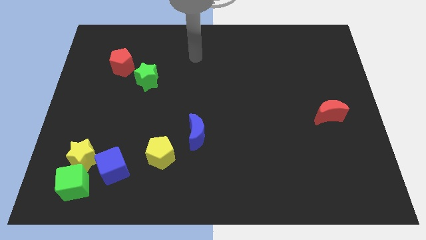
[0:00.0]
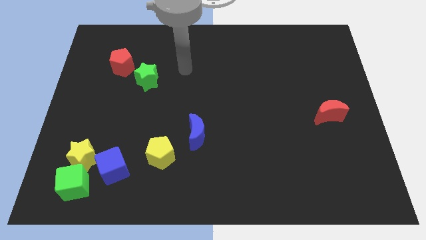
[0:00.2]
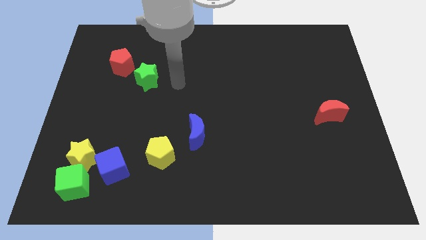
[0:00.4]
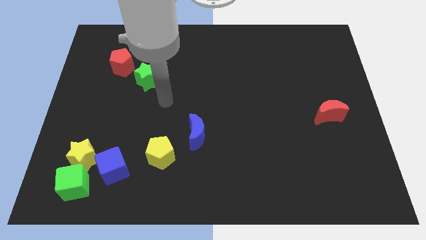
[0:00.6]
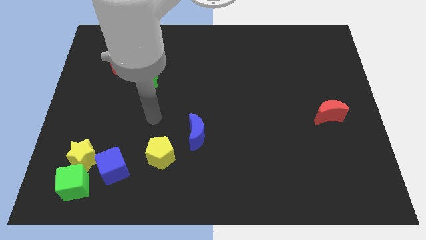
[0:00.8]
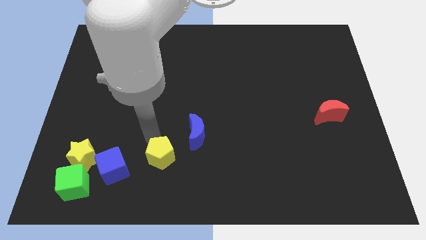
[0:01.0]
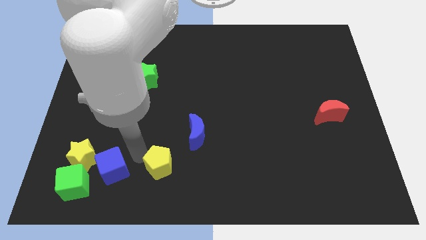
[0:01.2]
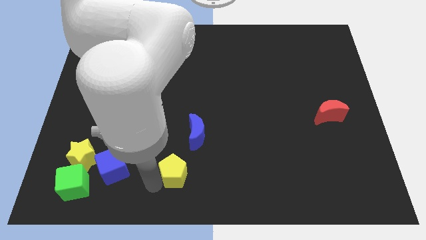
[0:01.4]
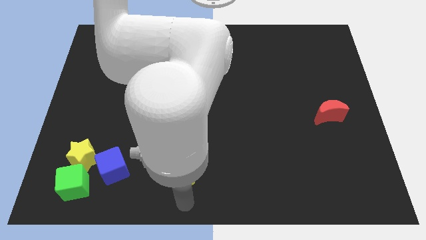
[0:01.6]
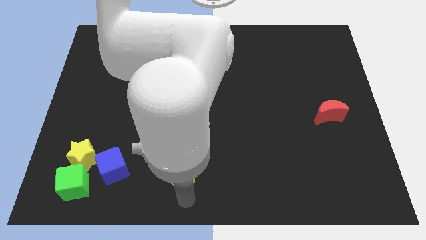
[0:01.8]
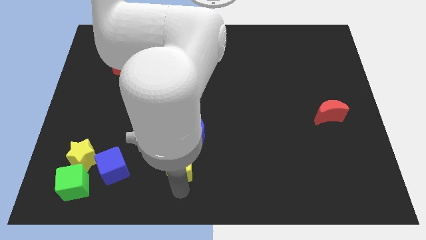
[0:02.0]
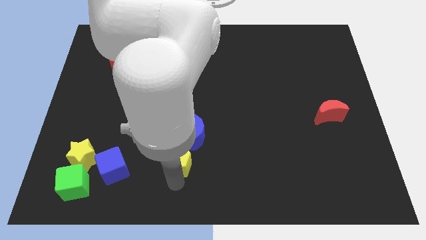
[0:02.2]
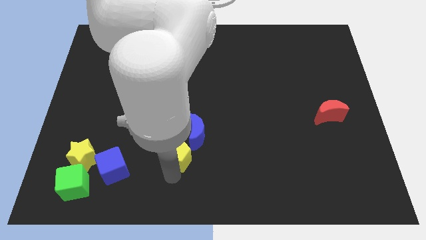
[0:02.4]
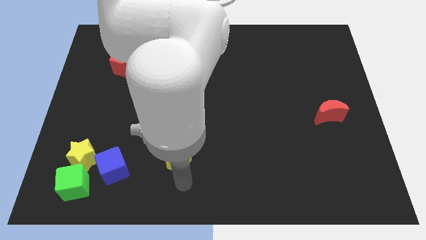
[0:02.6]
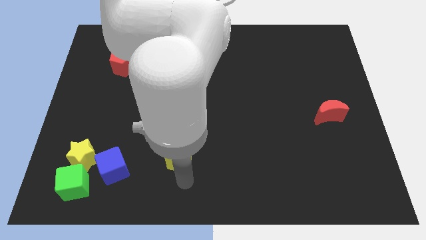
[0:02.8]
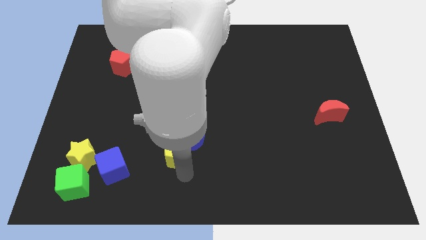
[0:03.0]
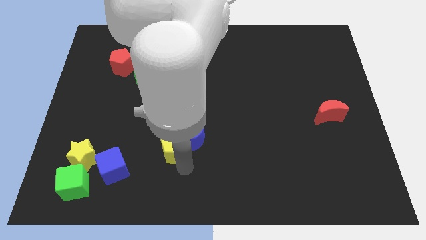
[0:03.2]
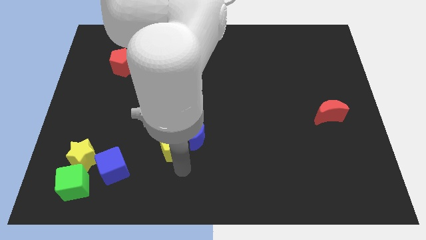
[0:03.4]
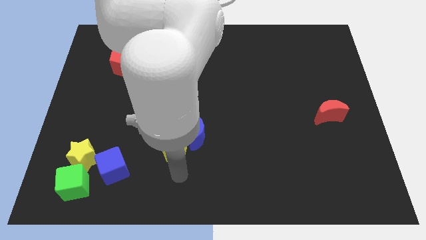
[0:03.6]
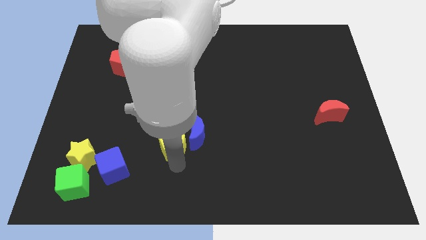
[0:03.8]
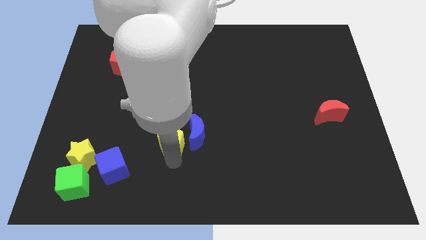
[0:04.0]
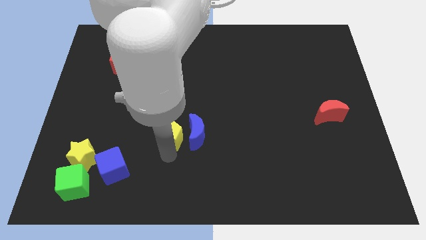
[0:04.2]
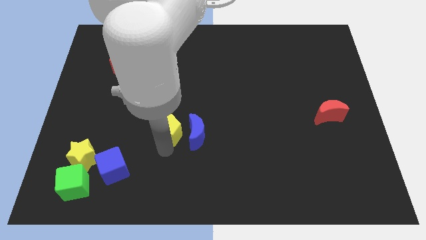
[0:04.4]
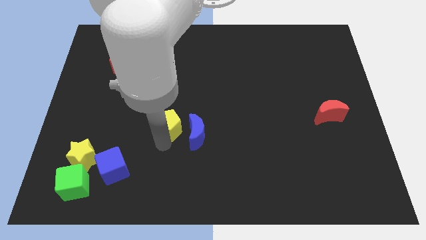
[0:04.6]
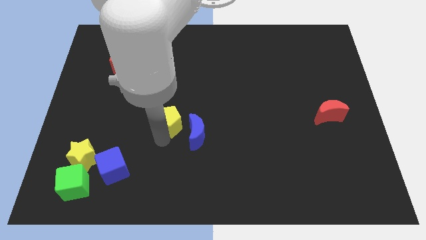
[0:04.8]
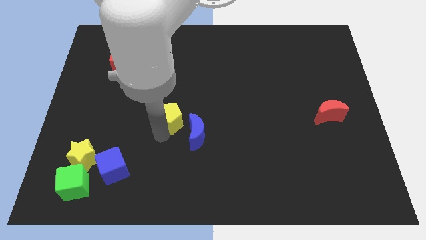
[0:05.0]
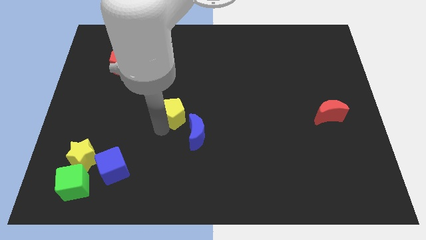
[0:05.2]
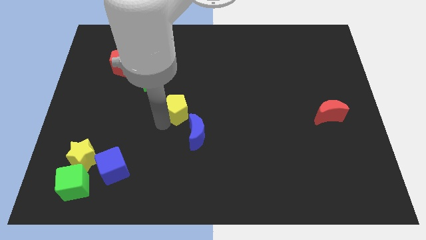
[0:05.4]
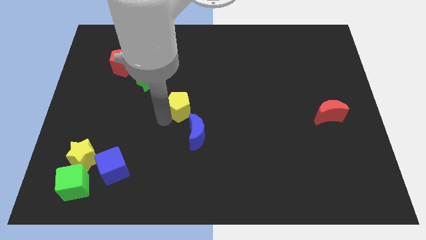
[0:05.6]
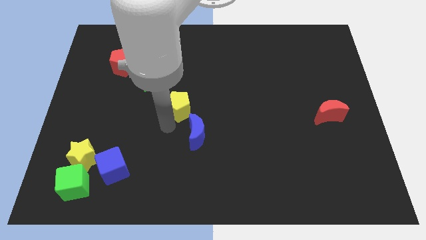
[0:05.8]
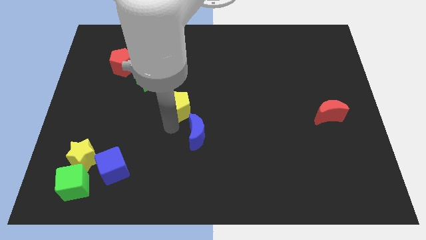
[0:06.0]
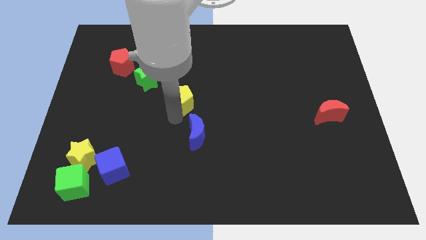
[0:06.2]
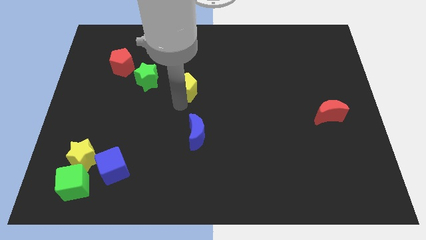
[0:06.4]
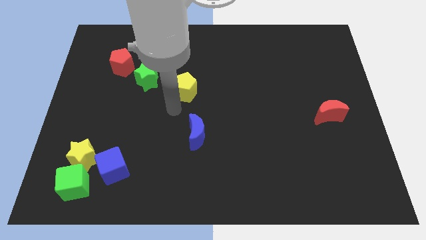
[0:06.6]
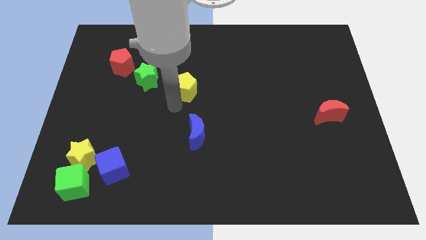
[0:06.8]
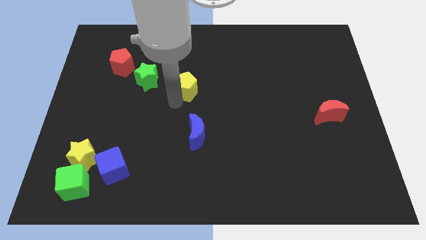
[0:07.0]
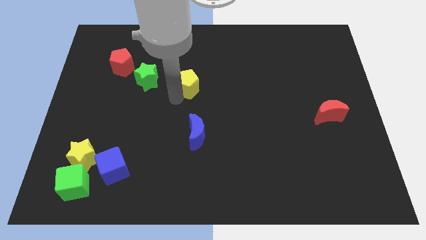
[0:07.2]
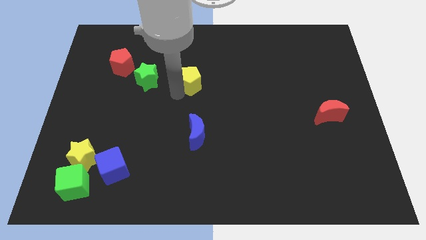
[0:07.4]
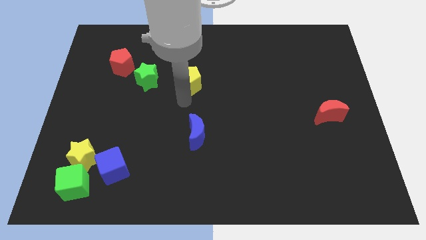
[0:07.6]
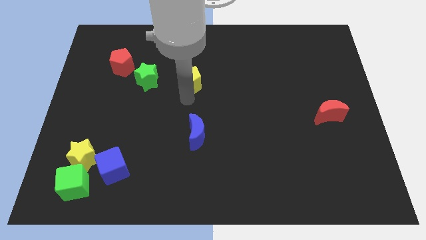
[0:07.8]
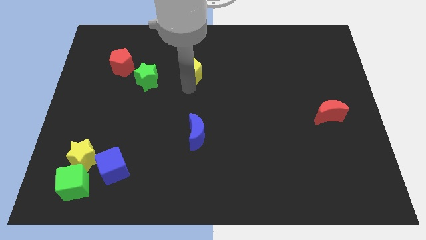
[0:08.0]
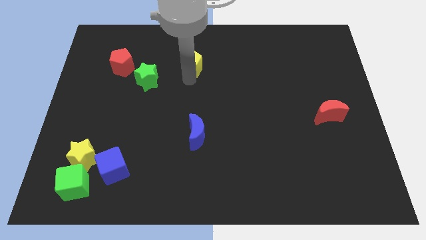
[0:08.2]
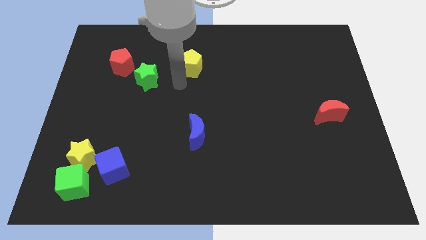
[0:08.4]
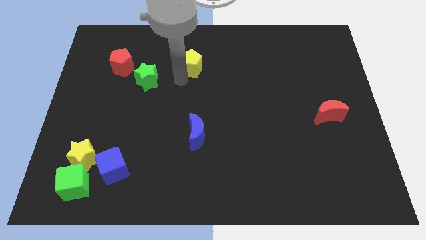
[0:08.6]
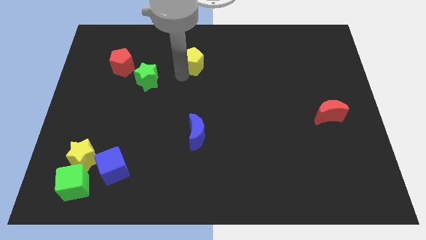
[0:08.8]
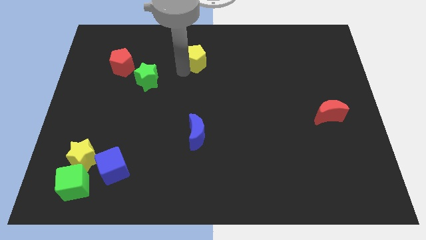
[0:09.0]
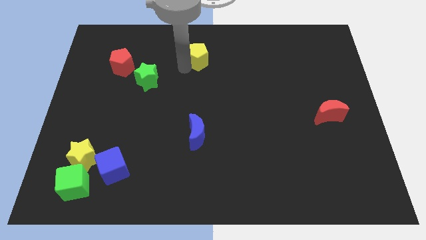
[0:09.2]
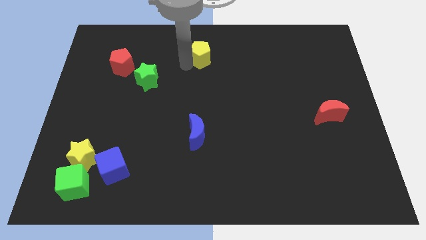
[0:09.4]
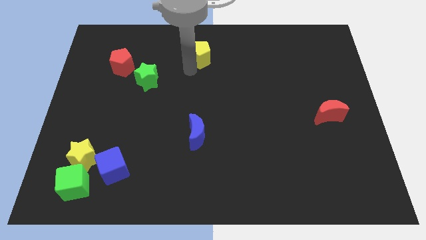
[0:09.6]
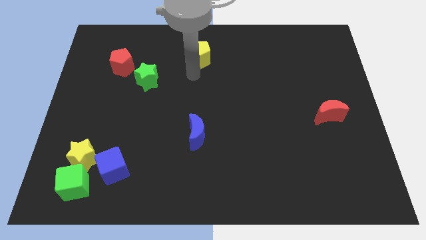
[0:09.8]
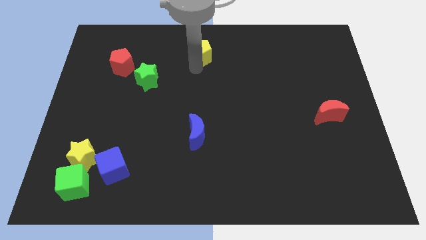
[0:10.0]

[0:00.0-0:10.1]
put the yellow pentagon to the towards your base

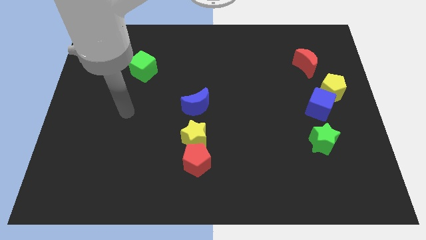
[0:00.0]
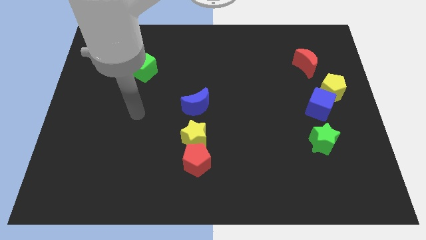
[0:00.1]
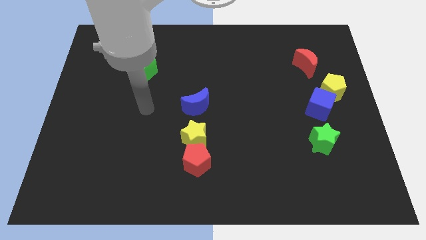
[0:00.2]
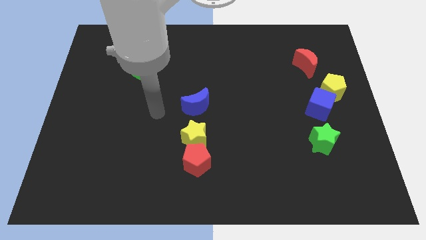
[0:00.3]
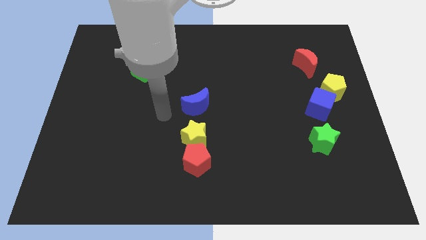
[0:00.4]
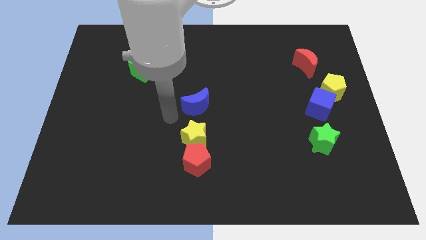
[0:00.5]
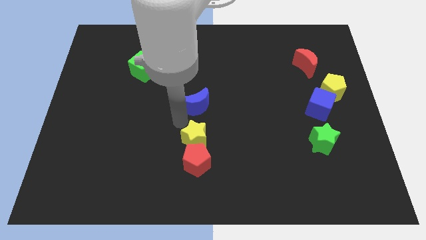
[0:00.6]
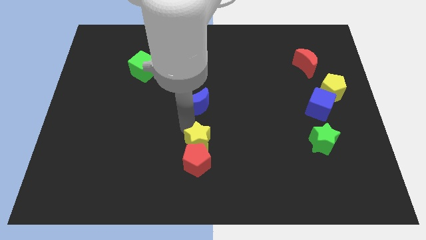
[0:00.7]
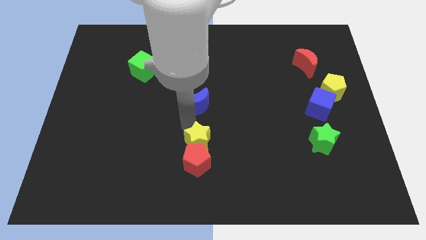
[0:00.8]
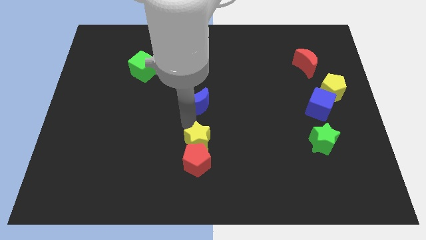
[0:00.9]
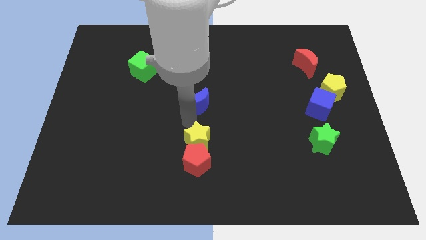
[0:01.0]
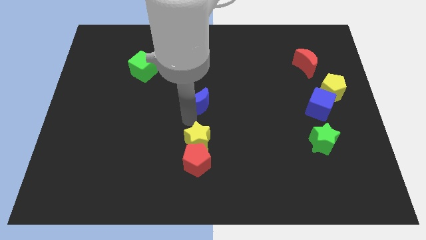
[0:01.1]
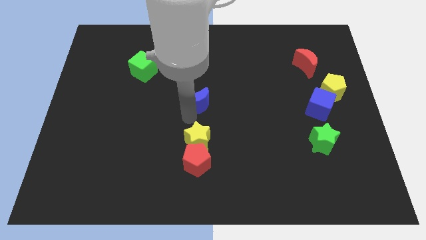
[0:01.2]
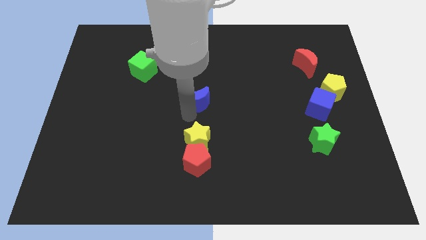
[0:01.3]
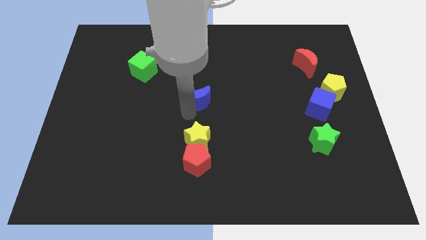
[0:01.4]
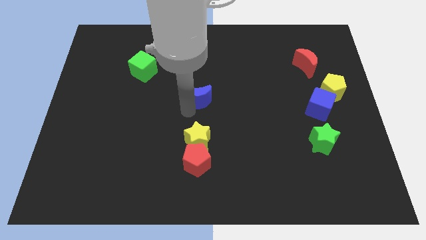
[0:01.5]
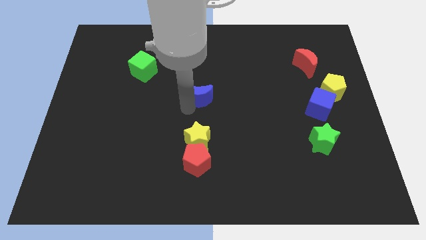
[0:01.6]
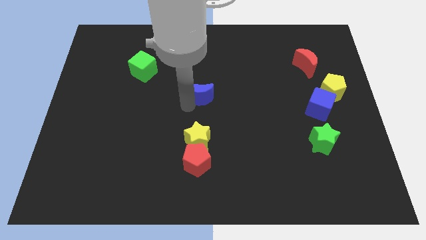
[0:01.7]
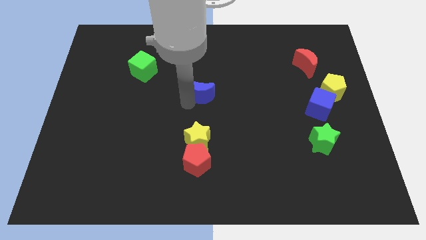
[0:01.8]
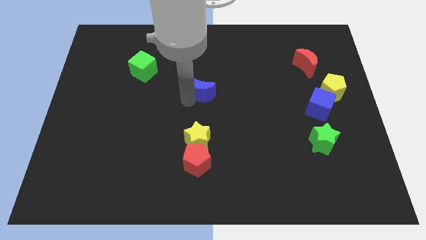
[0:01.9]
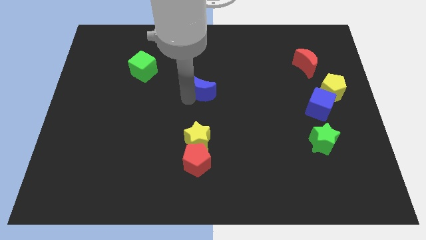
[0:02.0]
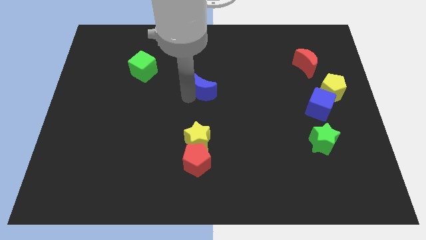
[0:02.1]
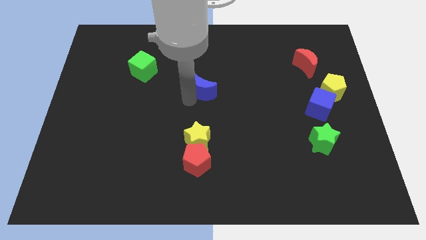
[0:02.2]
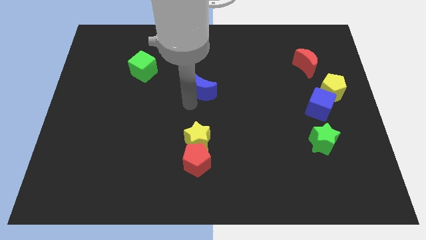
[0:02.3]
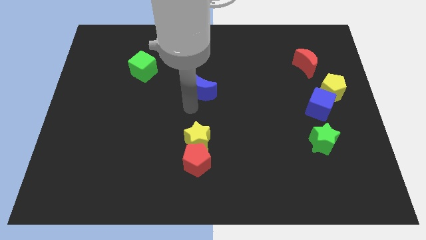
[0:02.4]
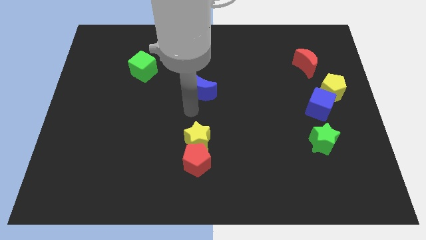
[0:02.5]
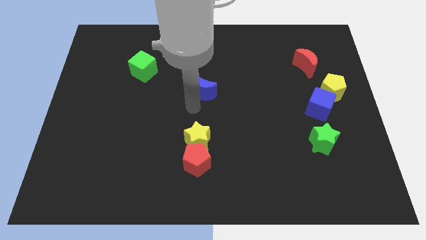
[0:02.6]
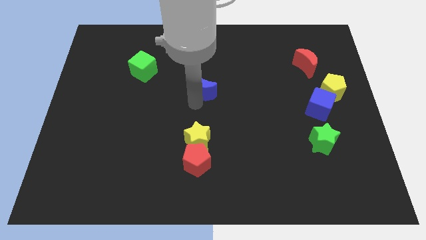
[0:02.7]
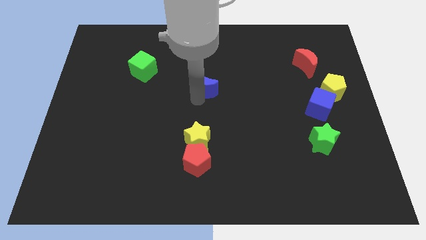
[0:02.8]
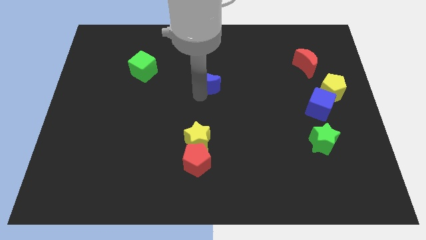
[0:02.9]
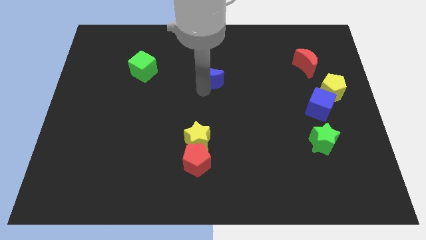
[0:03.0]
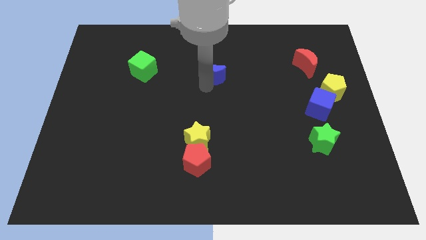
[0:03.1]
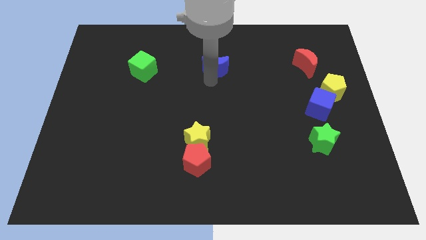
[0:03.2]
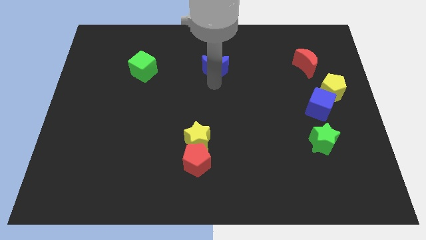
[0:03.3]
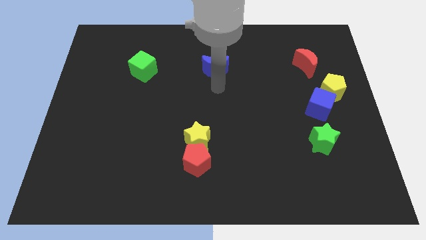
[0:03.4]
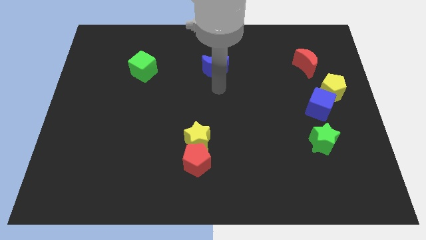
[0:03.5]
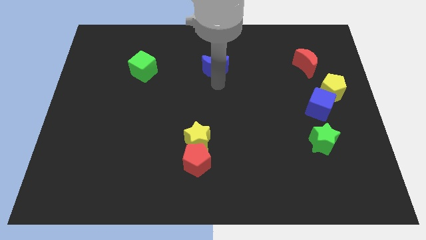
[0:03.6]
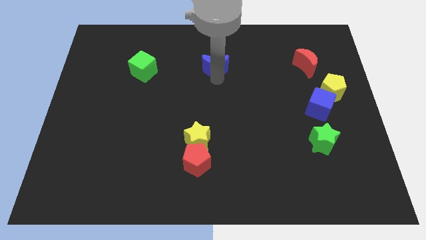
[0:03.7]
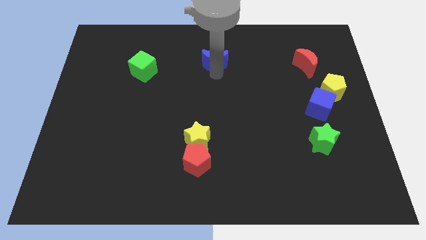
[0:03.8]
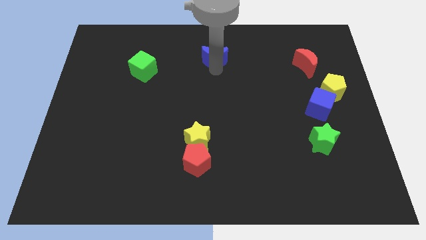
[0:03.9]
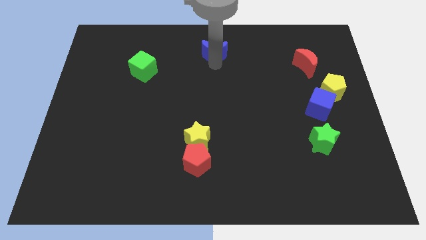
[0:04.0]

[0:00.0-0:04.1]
put the blue moon to the top side
